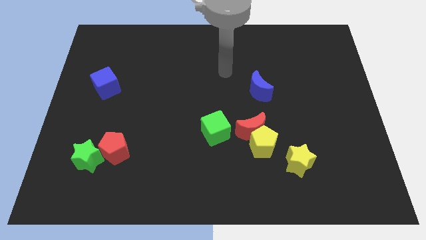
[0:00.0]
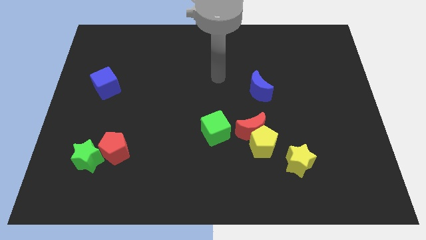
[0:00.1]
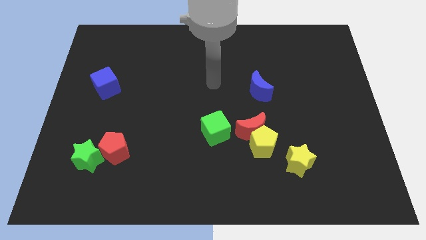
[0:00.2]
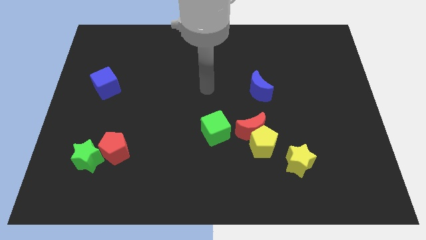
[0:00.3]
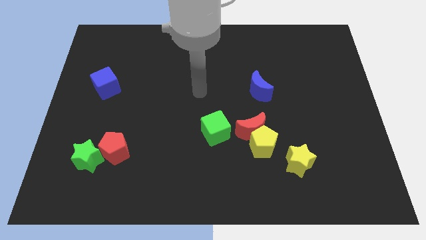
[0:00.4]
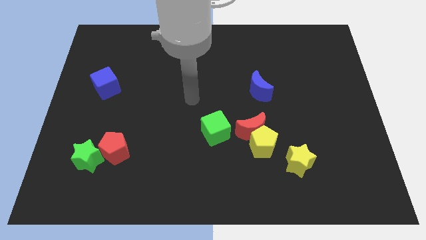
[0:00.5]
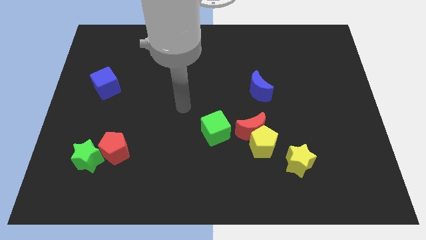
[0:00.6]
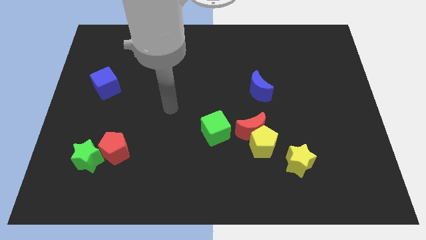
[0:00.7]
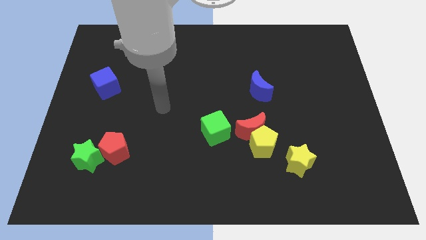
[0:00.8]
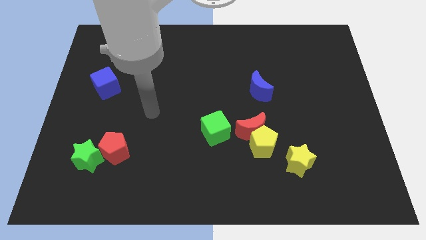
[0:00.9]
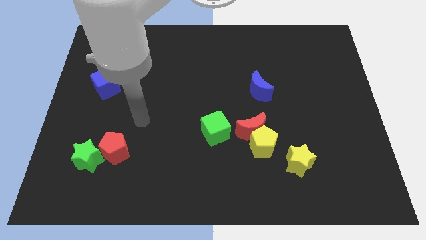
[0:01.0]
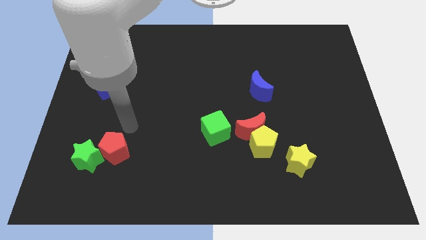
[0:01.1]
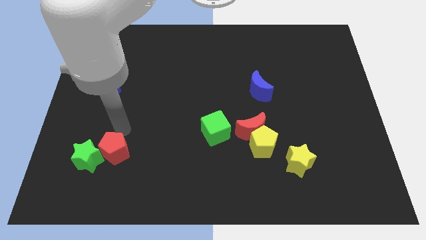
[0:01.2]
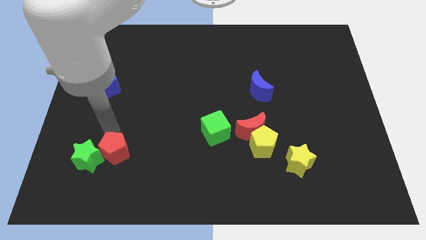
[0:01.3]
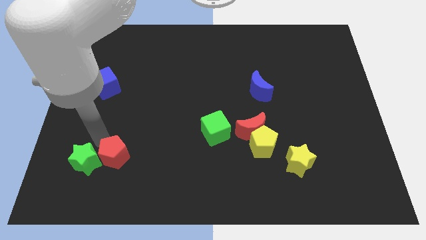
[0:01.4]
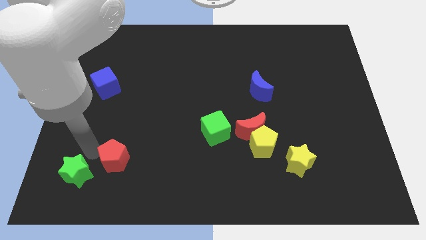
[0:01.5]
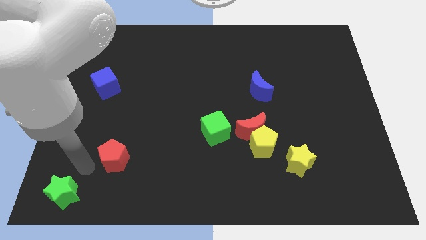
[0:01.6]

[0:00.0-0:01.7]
pull the red pentagon apart from the green star

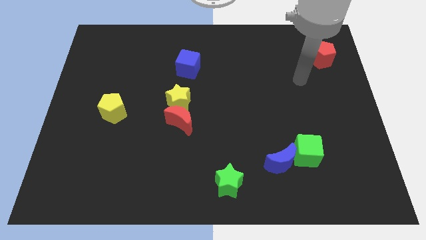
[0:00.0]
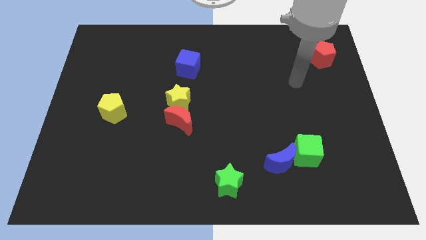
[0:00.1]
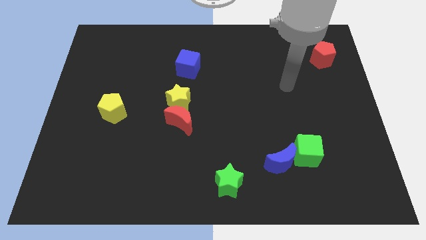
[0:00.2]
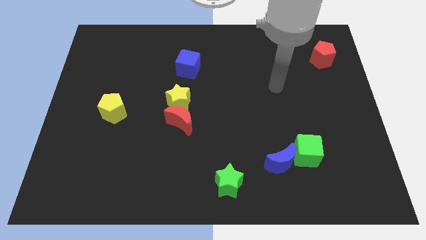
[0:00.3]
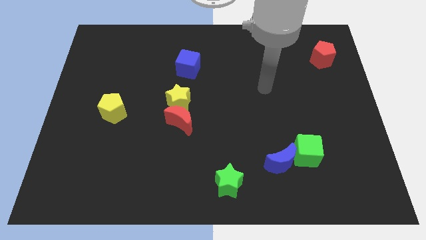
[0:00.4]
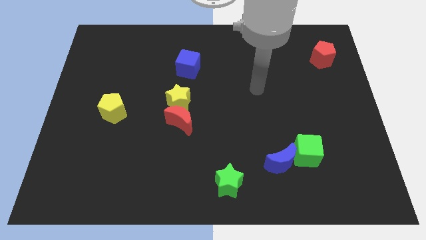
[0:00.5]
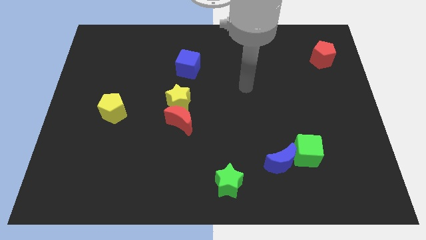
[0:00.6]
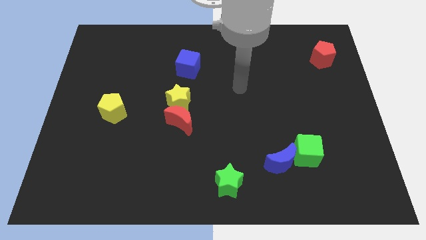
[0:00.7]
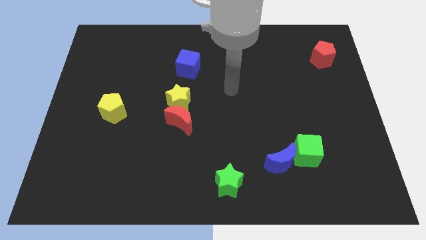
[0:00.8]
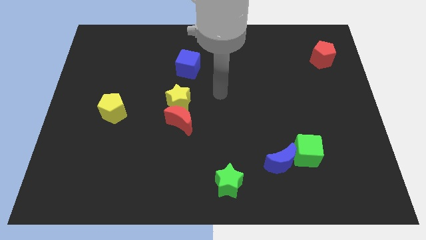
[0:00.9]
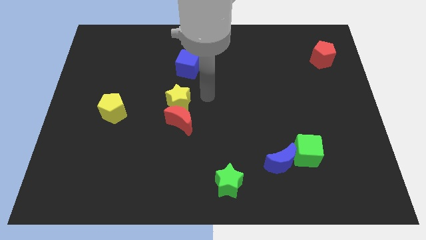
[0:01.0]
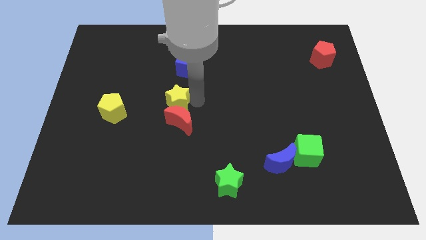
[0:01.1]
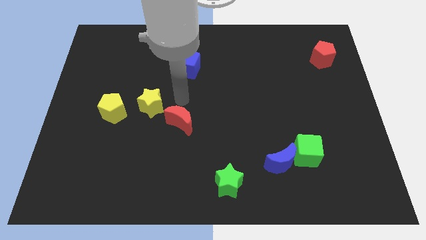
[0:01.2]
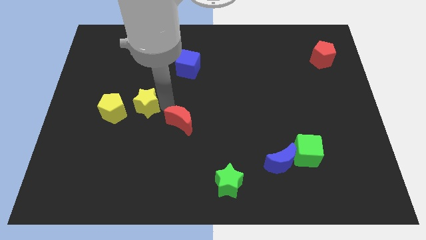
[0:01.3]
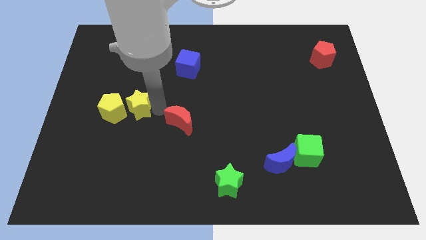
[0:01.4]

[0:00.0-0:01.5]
separate the red moon from the yellow star

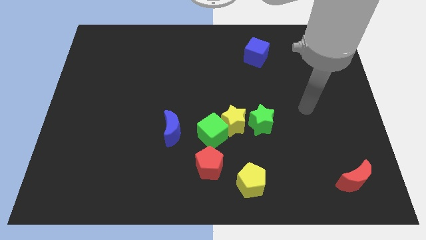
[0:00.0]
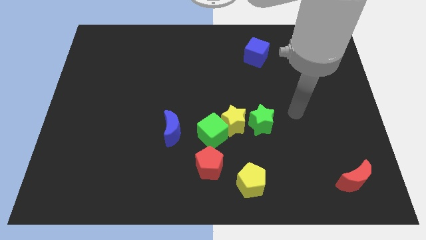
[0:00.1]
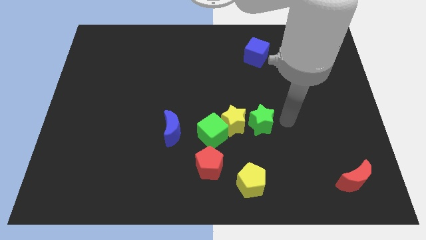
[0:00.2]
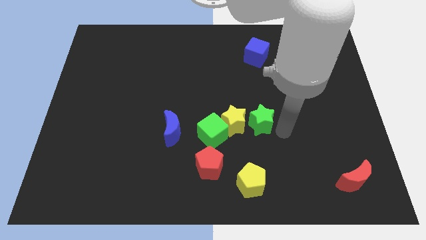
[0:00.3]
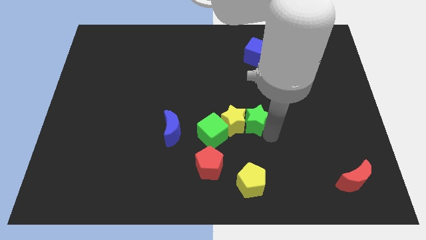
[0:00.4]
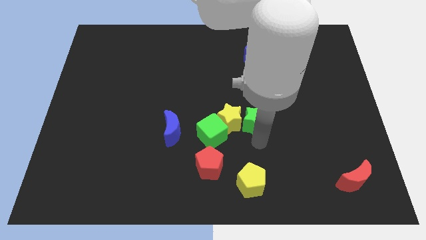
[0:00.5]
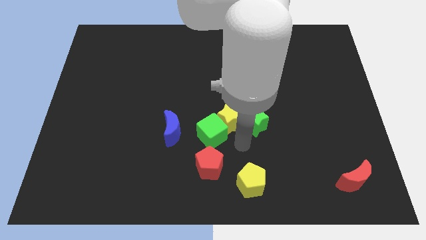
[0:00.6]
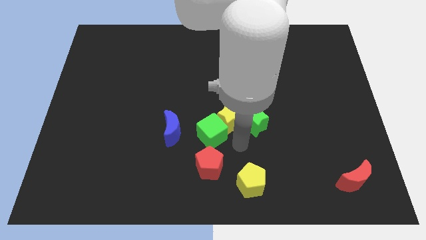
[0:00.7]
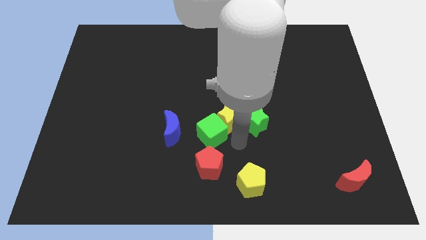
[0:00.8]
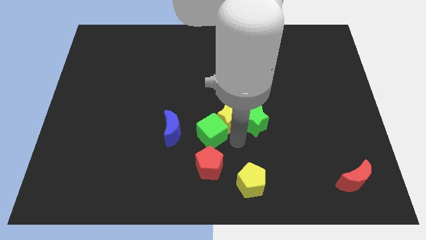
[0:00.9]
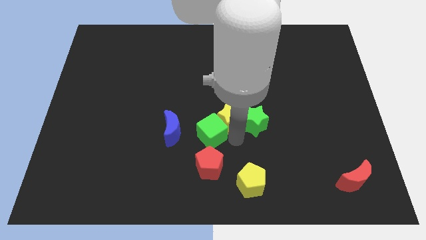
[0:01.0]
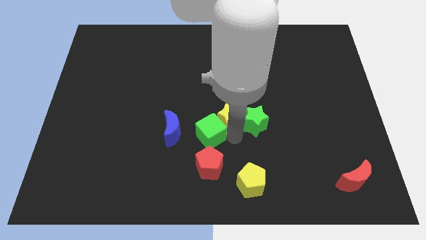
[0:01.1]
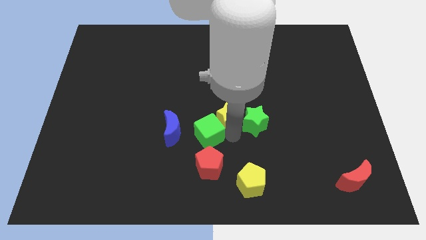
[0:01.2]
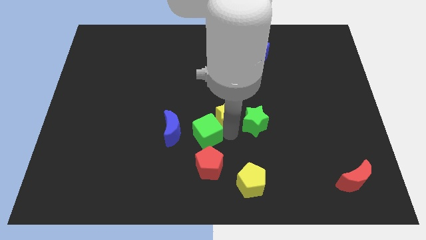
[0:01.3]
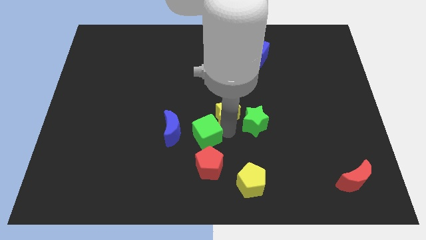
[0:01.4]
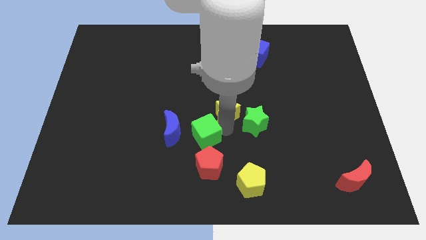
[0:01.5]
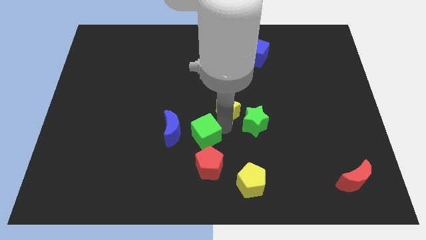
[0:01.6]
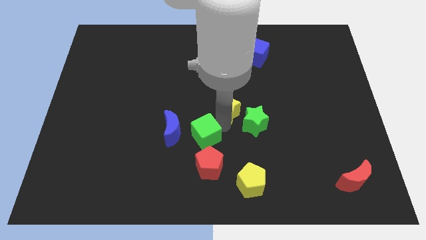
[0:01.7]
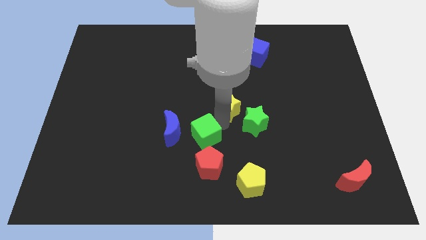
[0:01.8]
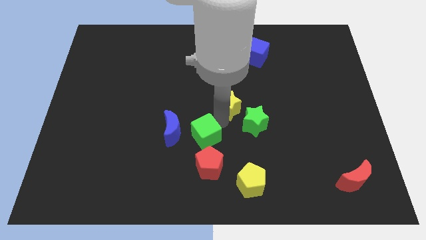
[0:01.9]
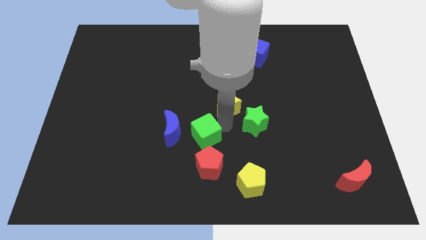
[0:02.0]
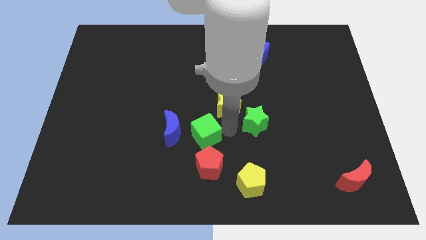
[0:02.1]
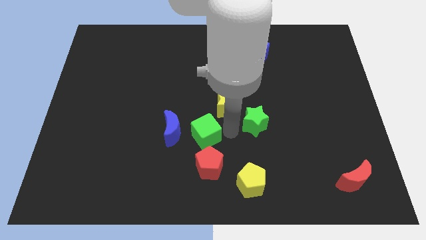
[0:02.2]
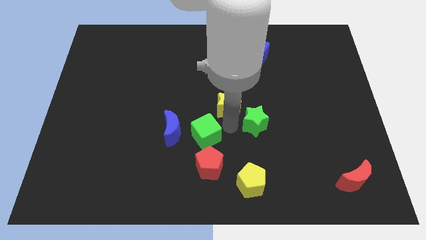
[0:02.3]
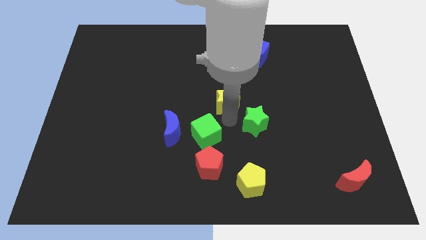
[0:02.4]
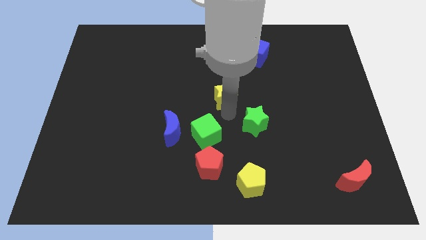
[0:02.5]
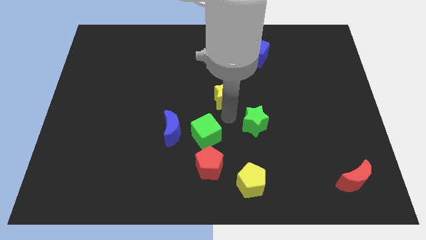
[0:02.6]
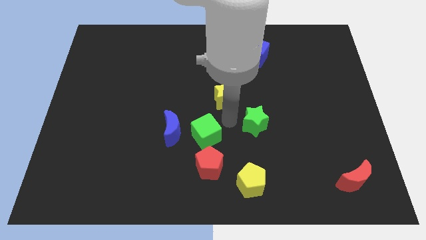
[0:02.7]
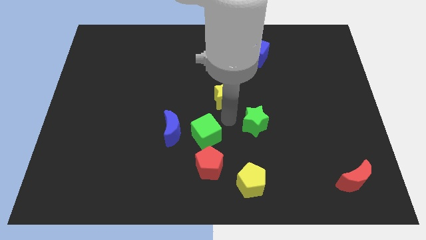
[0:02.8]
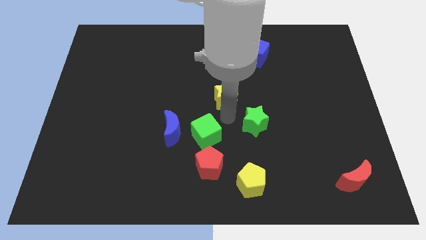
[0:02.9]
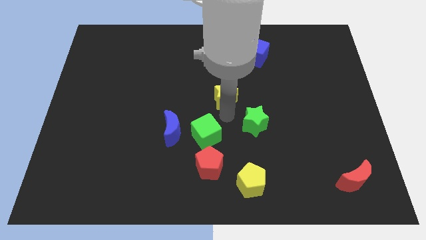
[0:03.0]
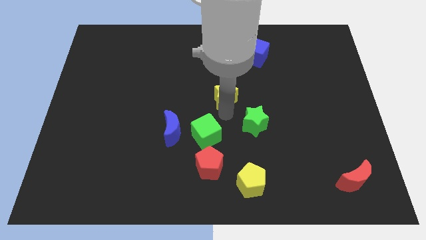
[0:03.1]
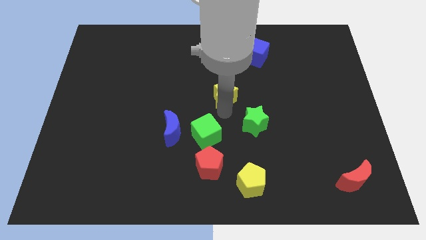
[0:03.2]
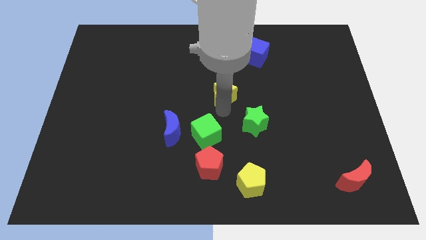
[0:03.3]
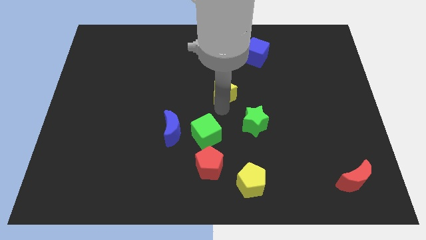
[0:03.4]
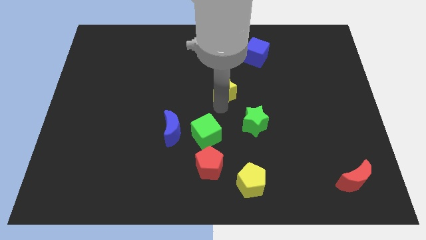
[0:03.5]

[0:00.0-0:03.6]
move the yellow star away from the green cube and green star

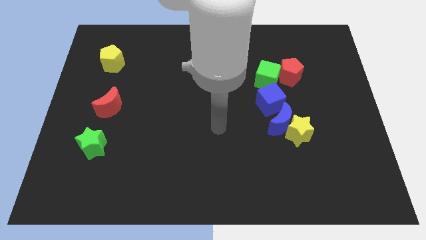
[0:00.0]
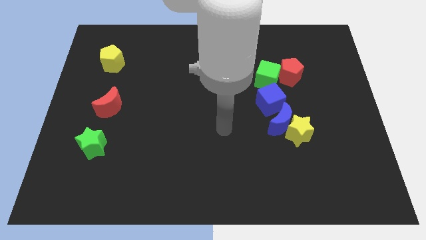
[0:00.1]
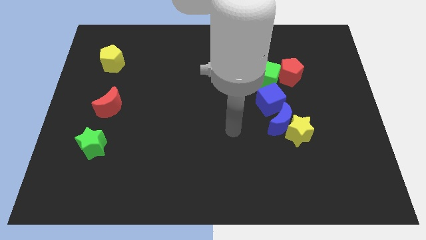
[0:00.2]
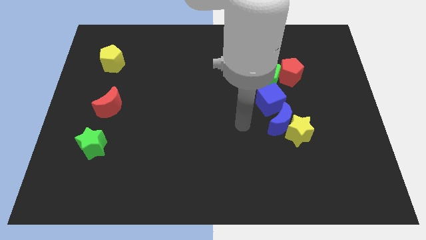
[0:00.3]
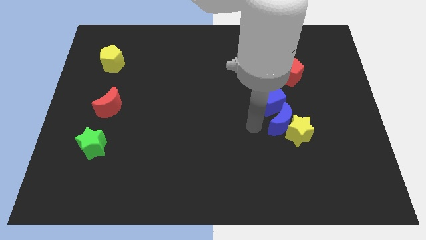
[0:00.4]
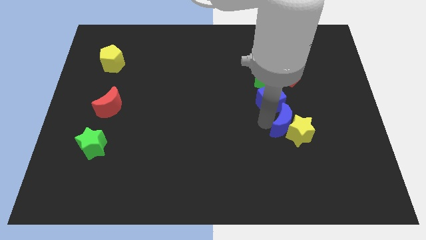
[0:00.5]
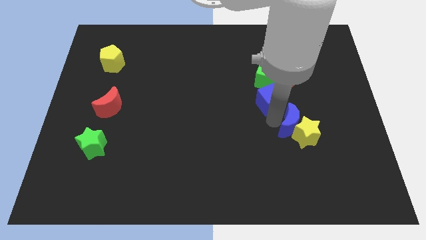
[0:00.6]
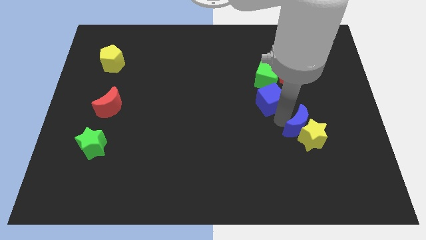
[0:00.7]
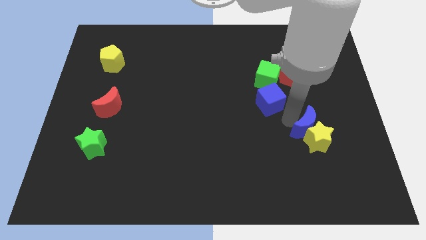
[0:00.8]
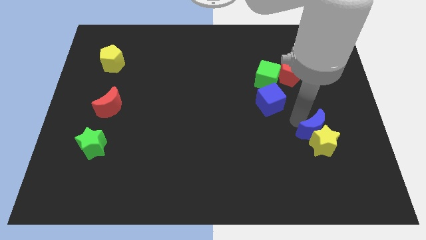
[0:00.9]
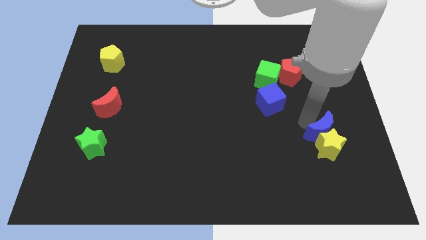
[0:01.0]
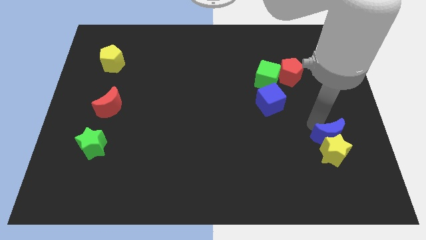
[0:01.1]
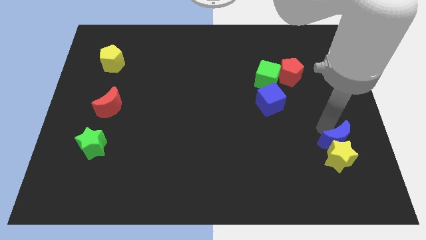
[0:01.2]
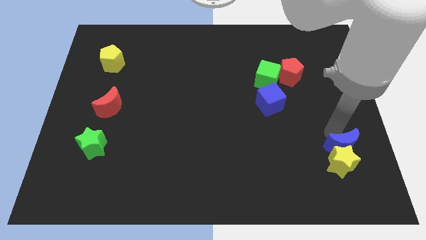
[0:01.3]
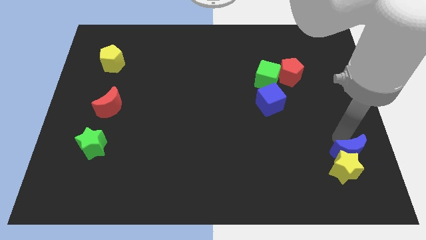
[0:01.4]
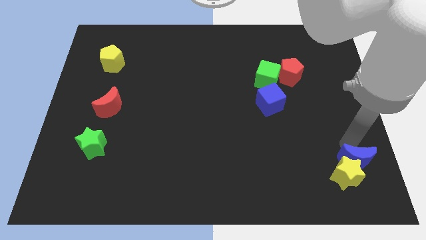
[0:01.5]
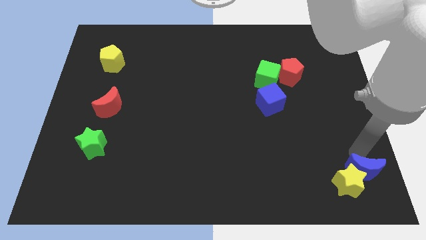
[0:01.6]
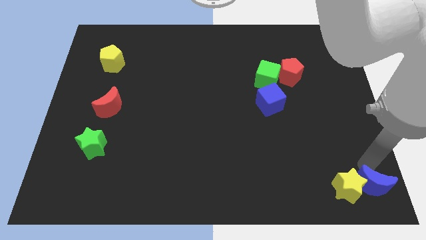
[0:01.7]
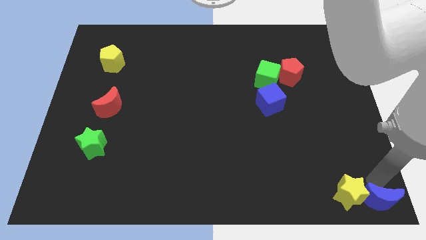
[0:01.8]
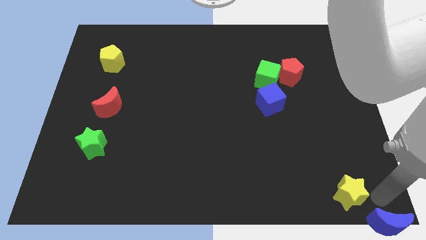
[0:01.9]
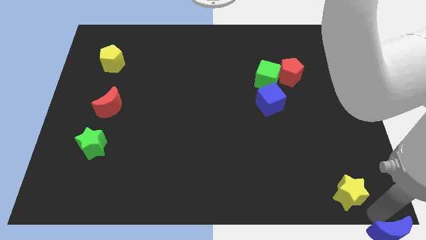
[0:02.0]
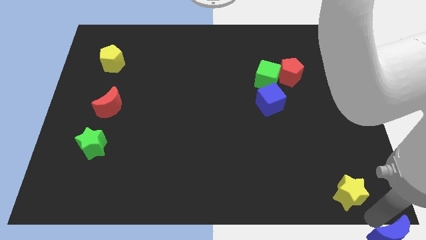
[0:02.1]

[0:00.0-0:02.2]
pull the yellow star apart from the blue moon

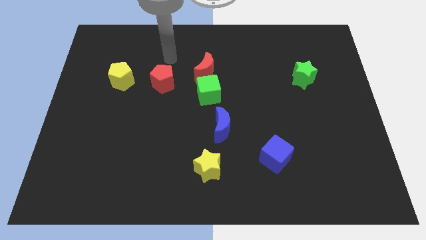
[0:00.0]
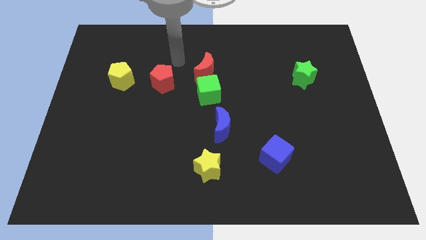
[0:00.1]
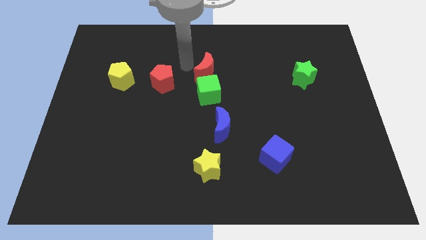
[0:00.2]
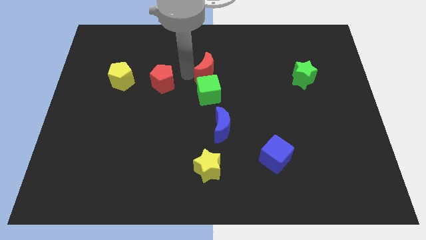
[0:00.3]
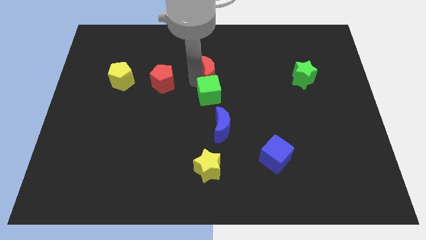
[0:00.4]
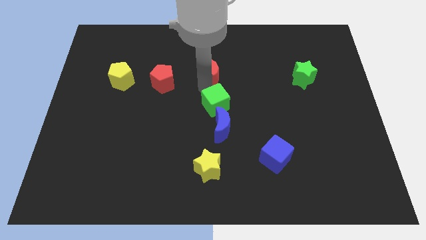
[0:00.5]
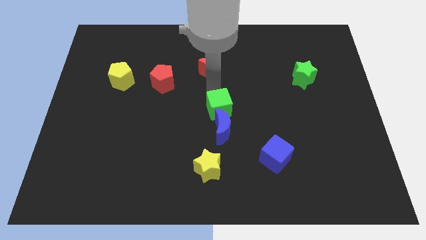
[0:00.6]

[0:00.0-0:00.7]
separate the red moon from the green cube
